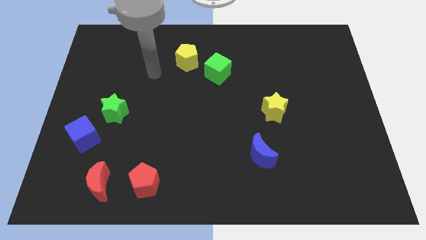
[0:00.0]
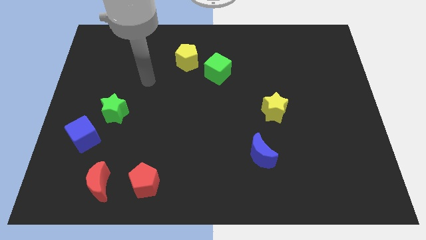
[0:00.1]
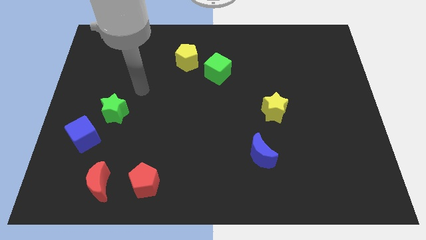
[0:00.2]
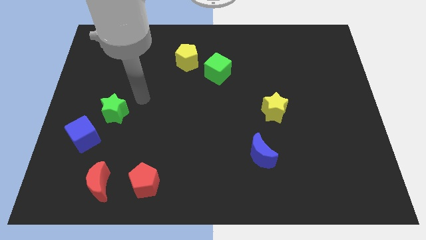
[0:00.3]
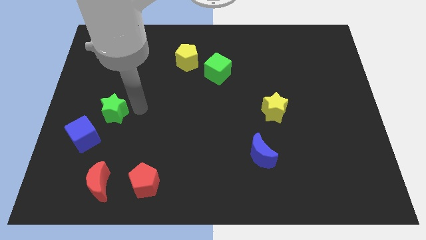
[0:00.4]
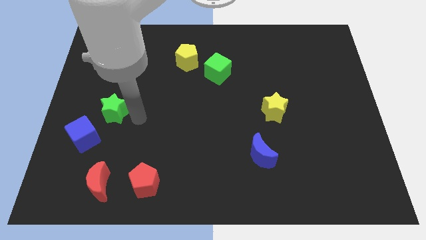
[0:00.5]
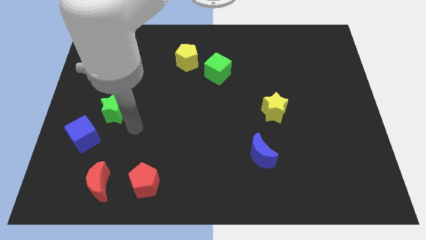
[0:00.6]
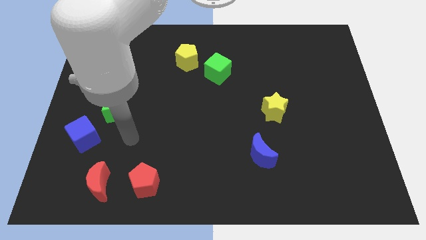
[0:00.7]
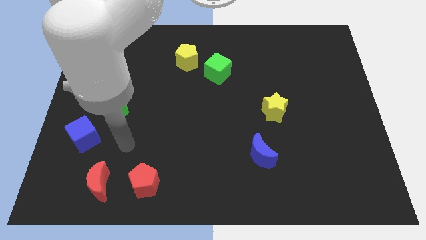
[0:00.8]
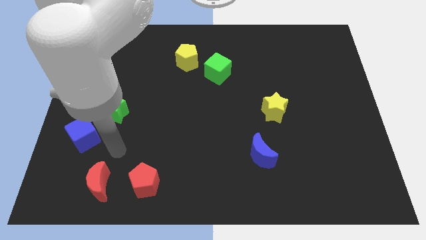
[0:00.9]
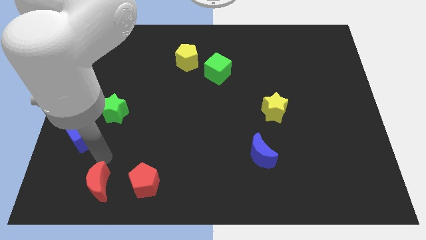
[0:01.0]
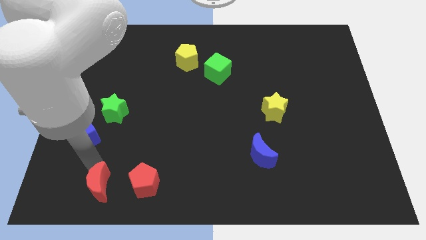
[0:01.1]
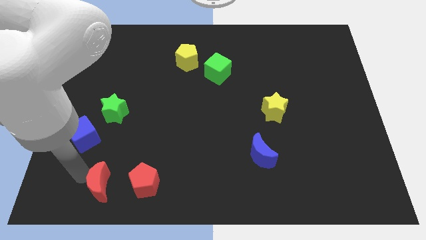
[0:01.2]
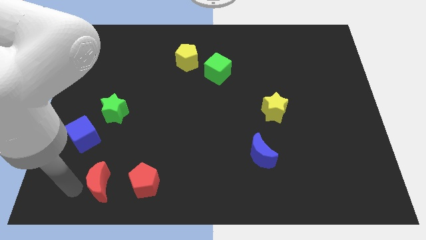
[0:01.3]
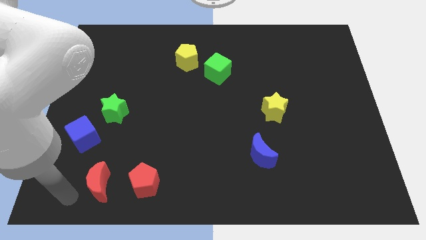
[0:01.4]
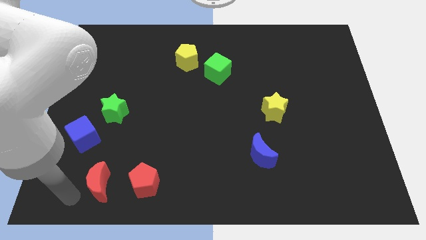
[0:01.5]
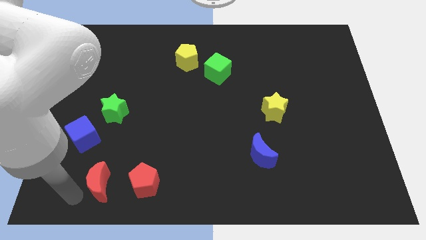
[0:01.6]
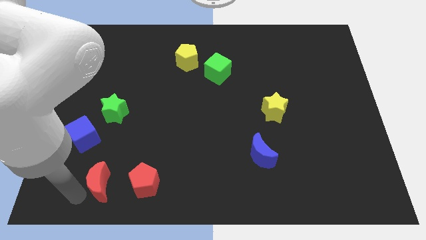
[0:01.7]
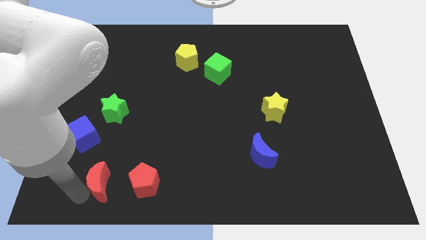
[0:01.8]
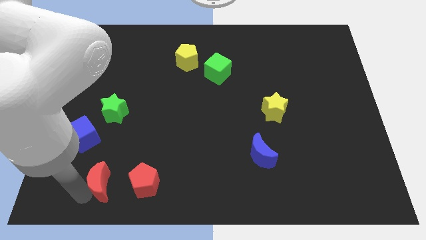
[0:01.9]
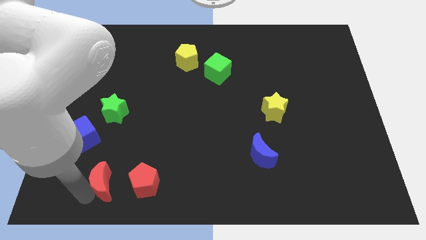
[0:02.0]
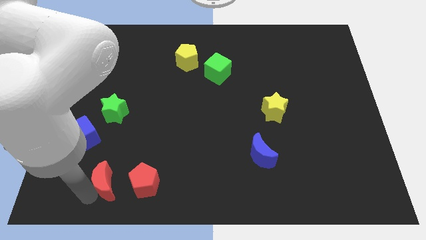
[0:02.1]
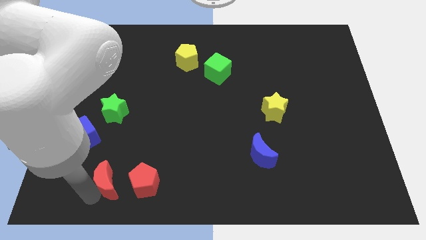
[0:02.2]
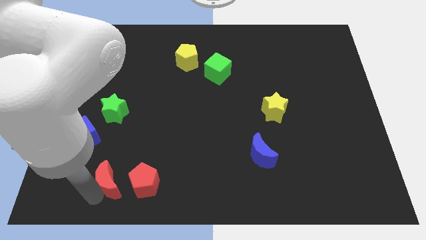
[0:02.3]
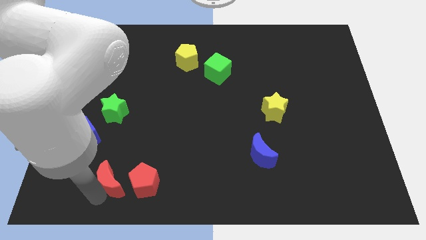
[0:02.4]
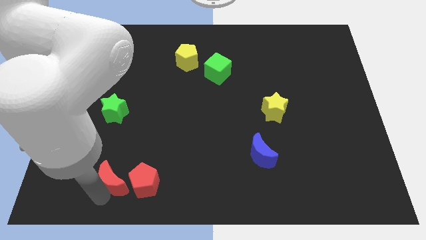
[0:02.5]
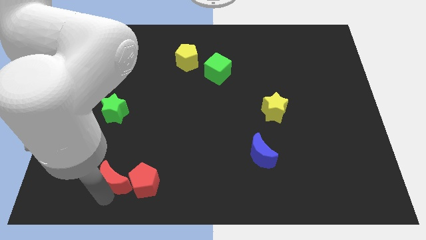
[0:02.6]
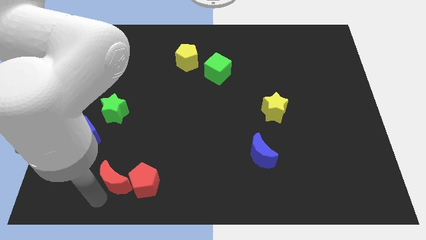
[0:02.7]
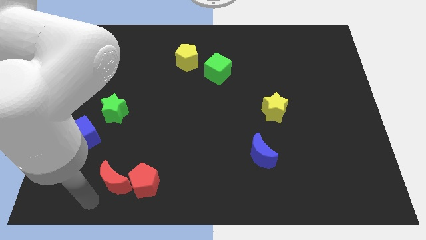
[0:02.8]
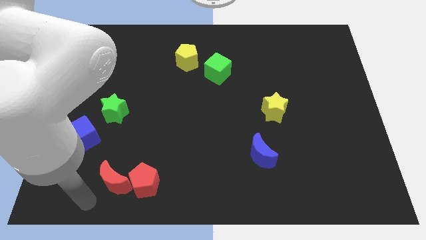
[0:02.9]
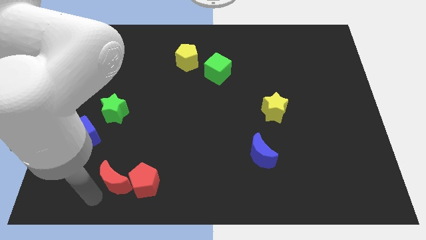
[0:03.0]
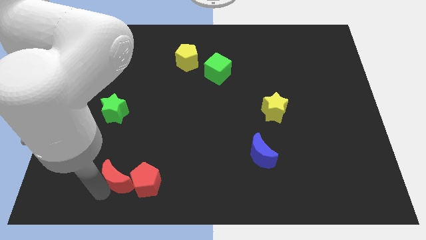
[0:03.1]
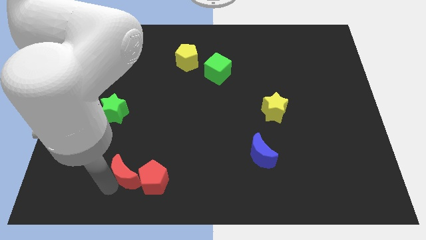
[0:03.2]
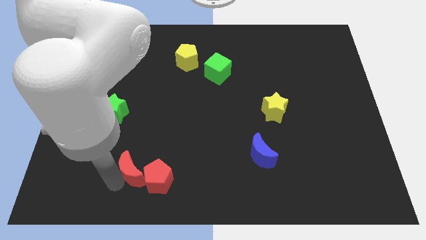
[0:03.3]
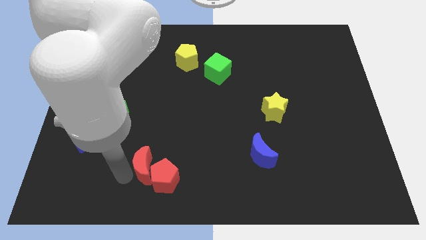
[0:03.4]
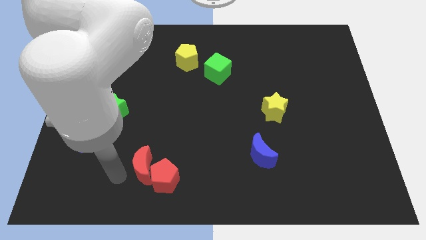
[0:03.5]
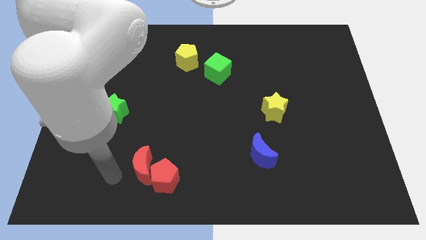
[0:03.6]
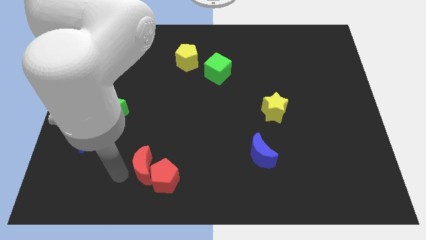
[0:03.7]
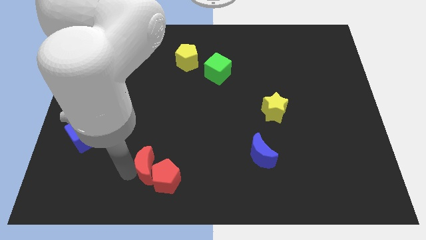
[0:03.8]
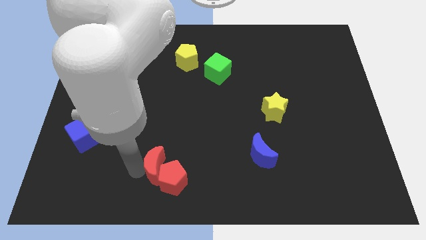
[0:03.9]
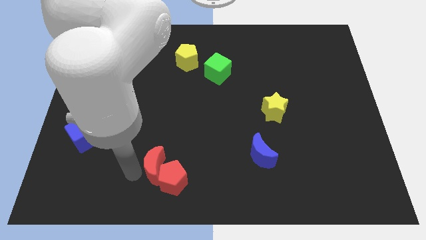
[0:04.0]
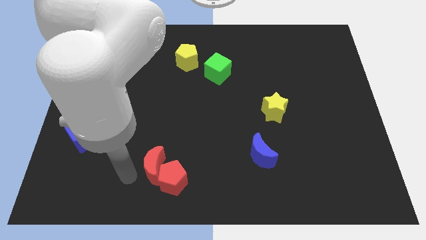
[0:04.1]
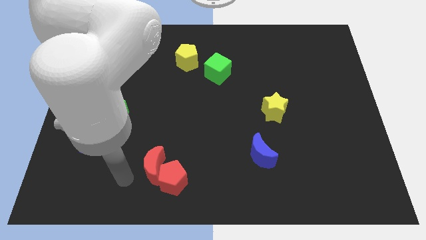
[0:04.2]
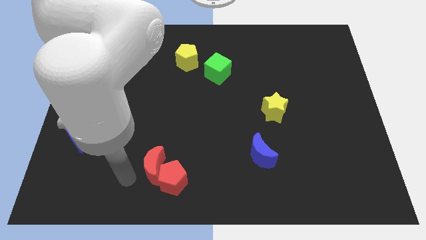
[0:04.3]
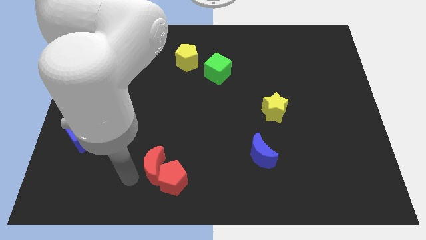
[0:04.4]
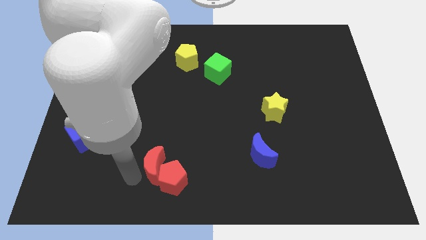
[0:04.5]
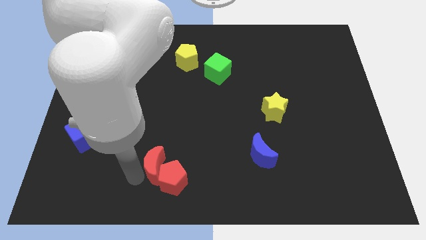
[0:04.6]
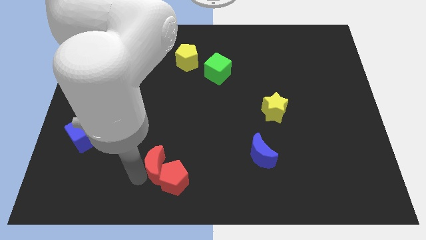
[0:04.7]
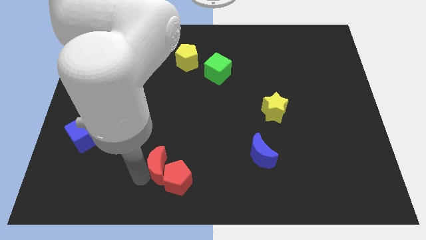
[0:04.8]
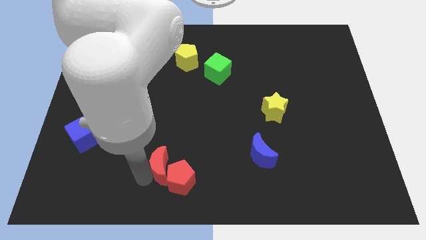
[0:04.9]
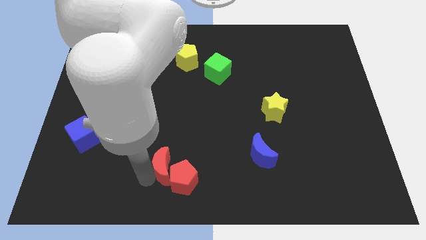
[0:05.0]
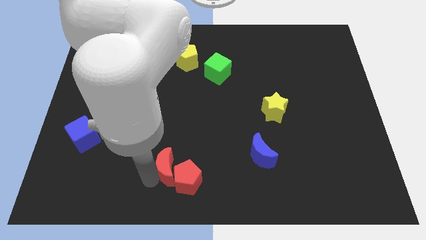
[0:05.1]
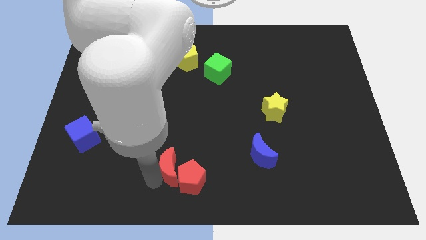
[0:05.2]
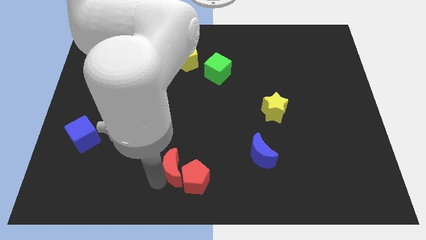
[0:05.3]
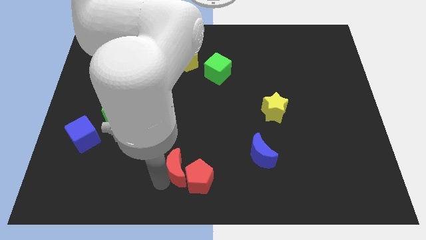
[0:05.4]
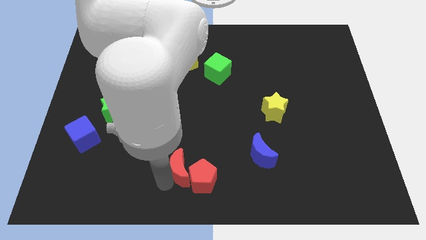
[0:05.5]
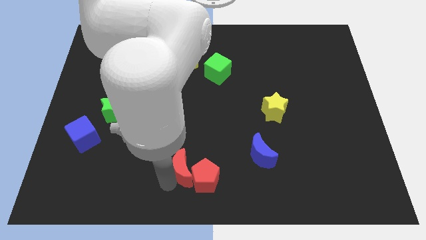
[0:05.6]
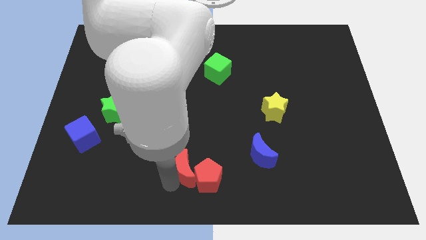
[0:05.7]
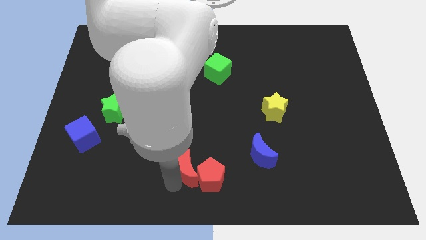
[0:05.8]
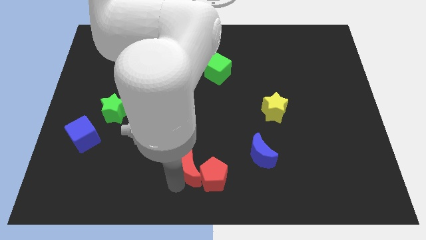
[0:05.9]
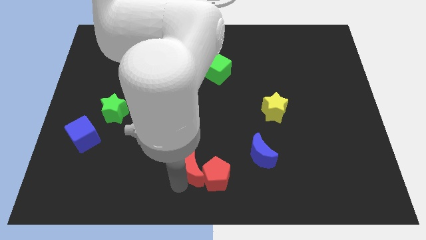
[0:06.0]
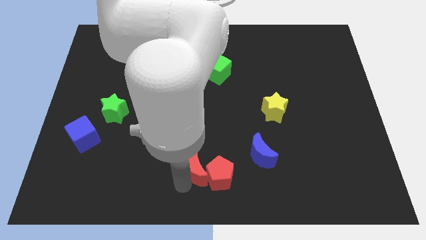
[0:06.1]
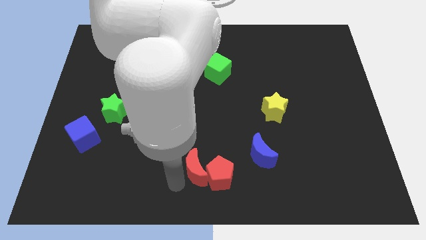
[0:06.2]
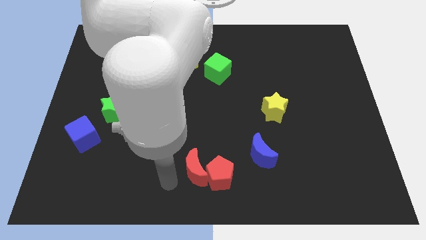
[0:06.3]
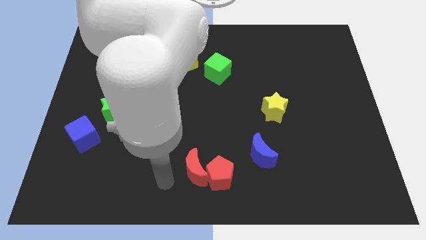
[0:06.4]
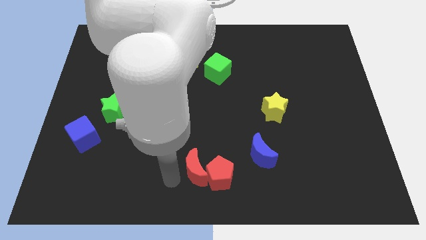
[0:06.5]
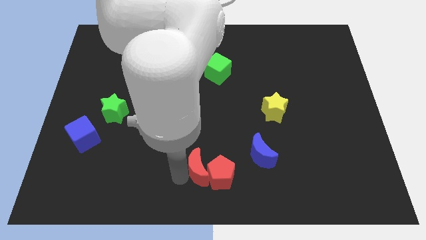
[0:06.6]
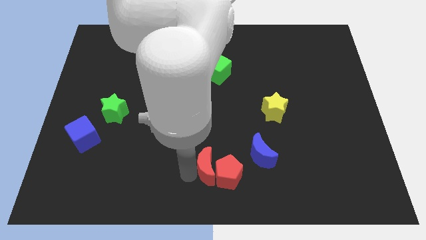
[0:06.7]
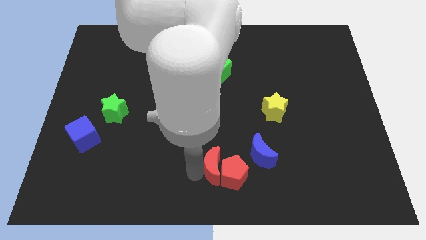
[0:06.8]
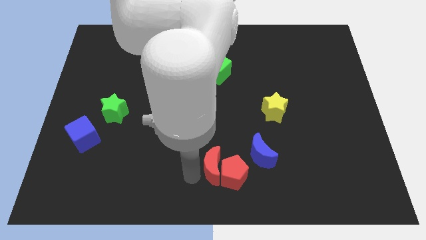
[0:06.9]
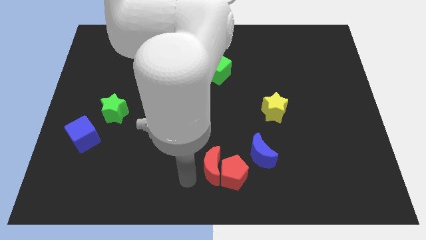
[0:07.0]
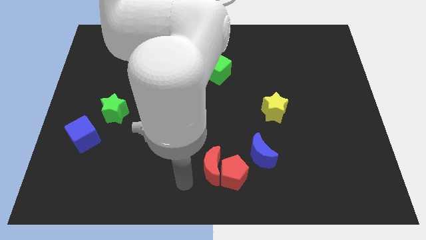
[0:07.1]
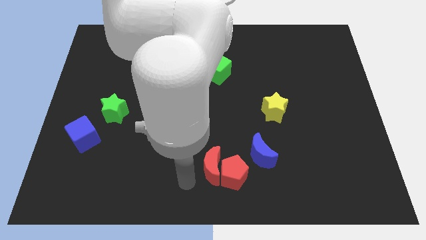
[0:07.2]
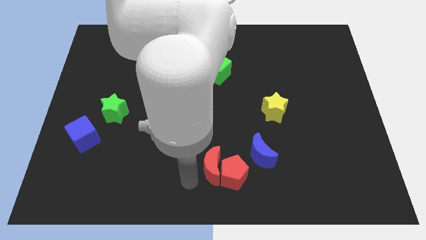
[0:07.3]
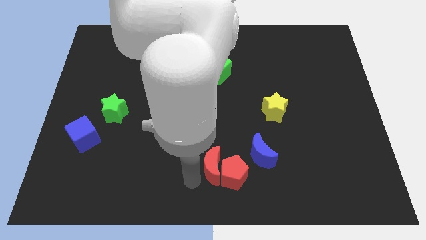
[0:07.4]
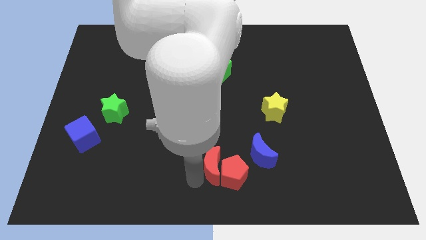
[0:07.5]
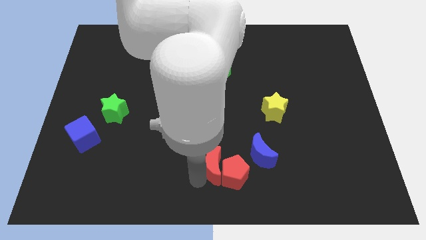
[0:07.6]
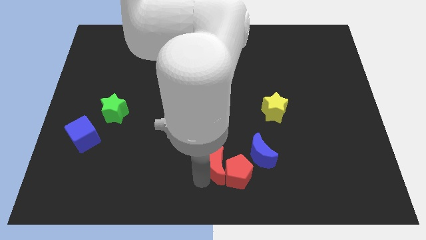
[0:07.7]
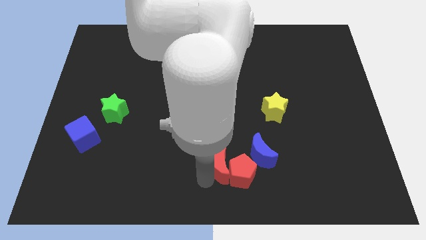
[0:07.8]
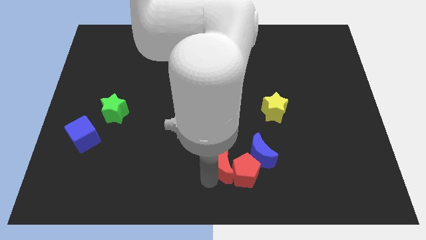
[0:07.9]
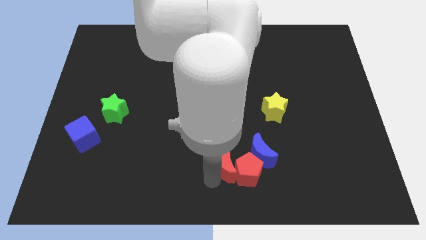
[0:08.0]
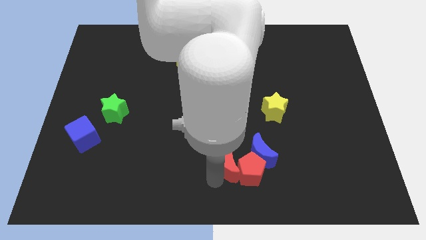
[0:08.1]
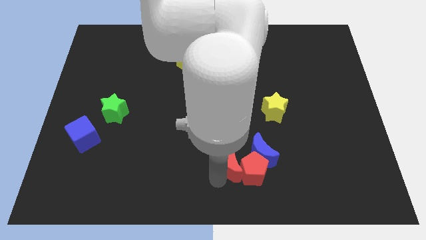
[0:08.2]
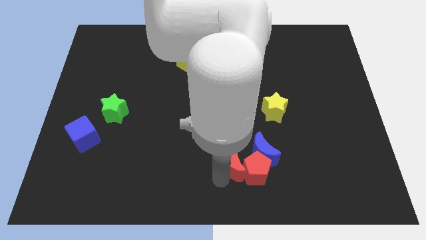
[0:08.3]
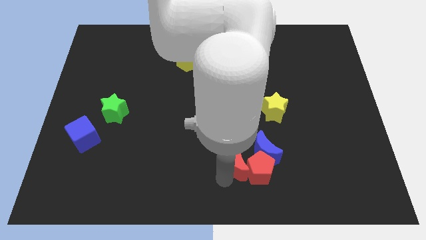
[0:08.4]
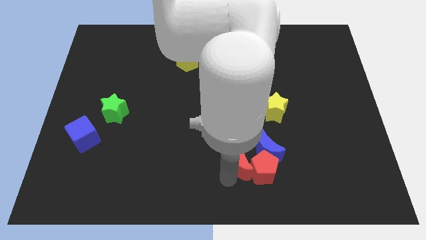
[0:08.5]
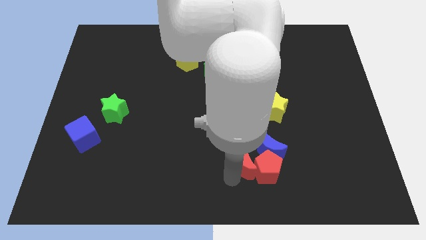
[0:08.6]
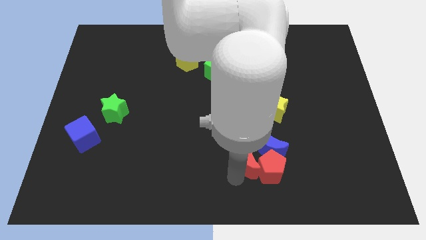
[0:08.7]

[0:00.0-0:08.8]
put the red moon towards the blue moon
